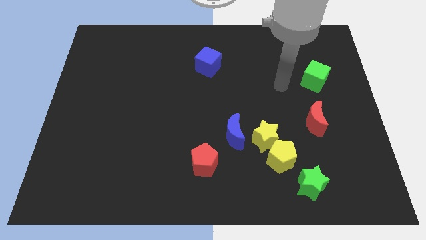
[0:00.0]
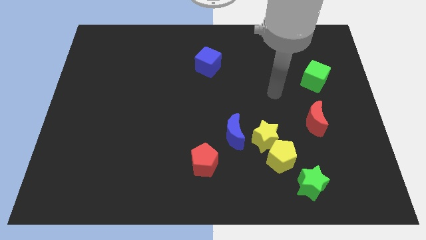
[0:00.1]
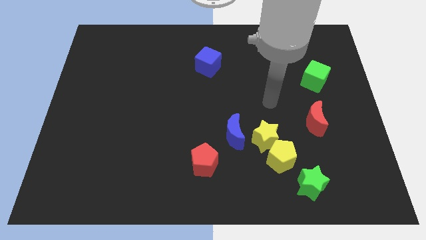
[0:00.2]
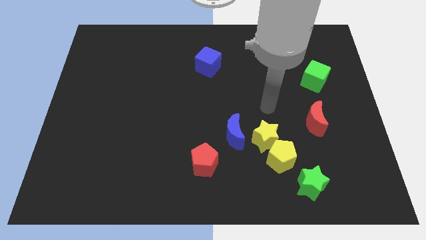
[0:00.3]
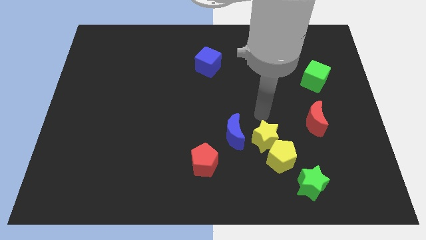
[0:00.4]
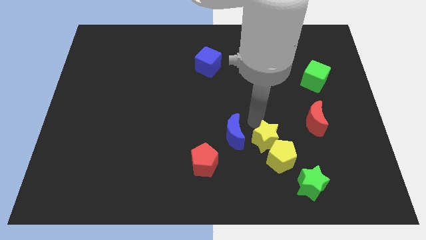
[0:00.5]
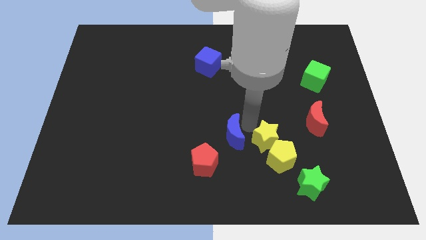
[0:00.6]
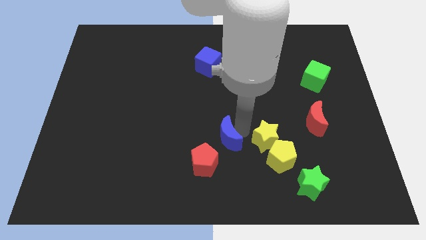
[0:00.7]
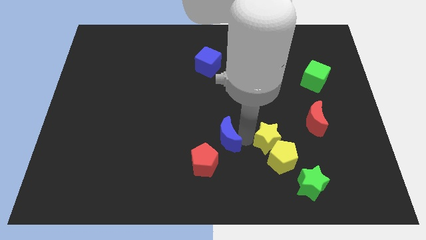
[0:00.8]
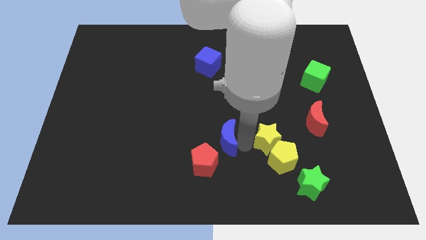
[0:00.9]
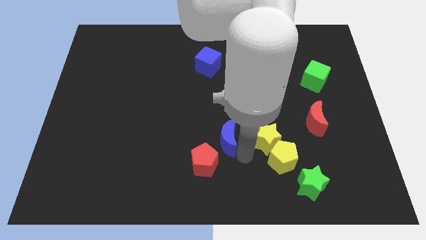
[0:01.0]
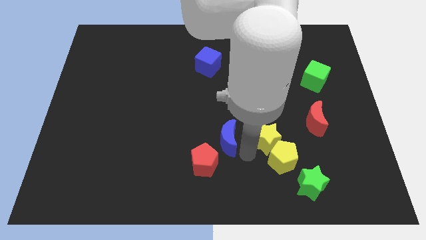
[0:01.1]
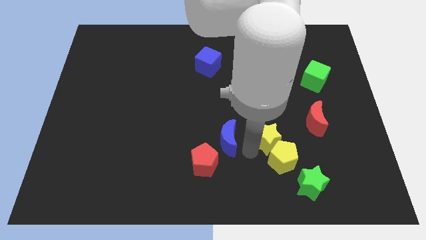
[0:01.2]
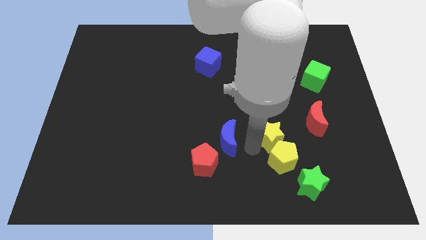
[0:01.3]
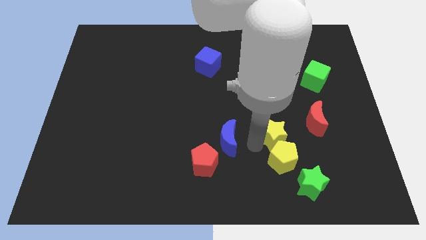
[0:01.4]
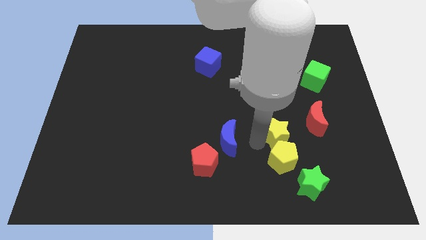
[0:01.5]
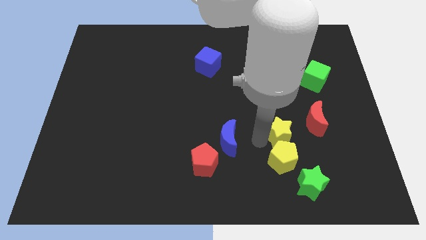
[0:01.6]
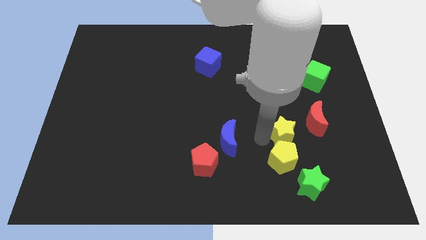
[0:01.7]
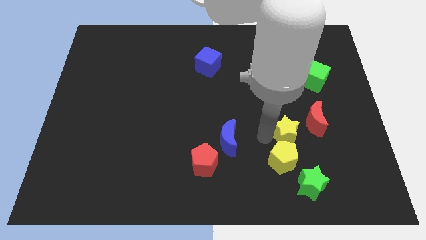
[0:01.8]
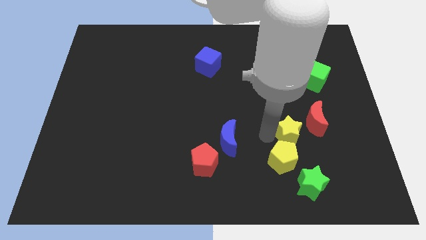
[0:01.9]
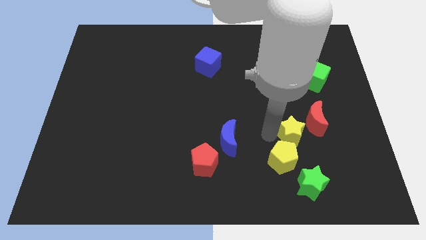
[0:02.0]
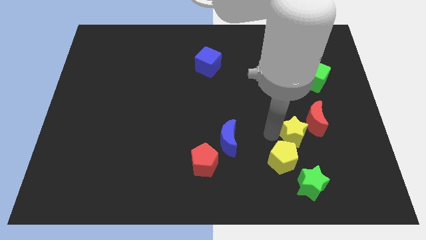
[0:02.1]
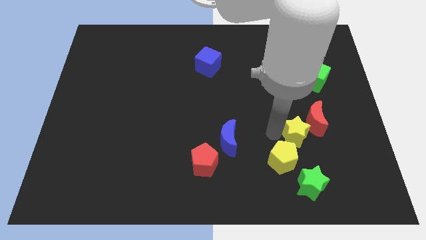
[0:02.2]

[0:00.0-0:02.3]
move the yellow star away from the yellow pentagon and blue moon

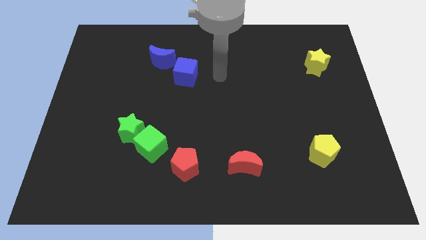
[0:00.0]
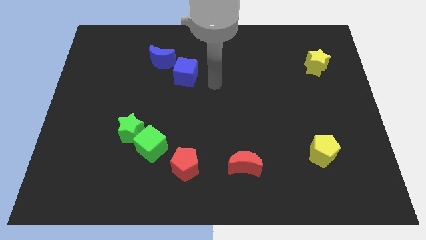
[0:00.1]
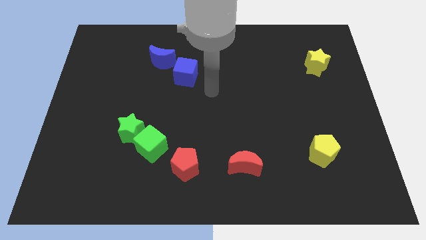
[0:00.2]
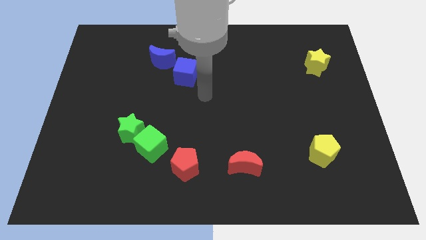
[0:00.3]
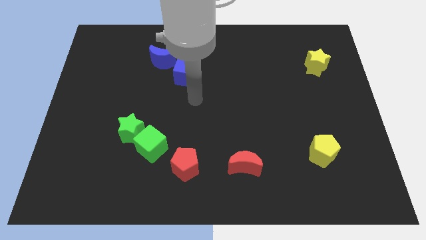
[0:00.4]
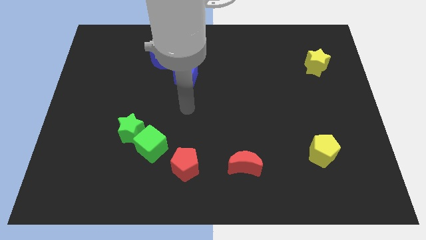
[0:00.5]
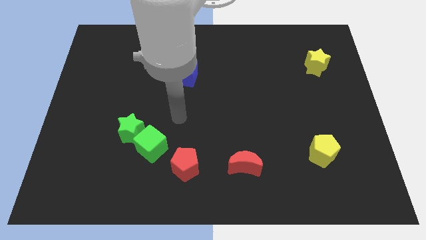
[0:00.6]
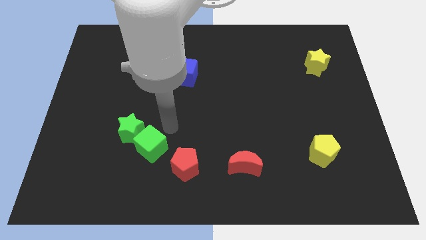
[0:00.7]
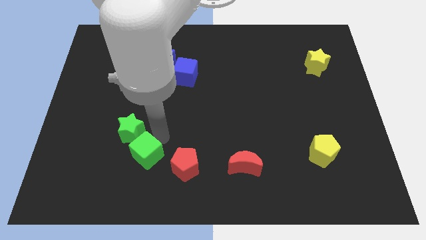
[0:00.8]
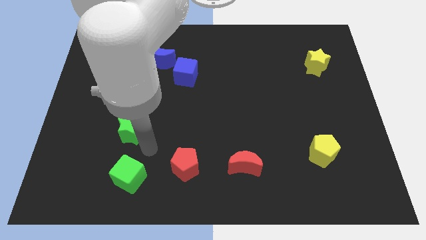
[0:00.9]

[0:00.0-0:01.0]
move the green star away from the green cube

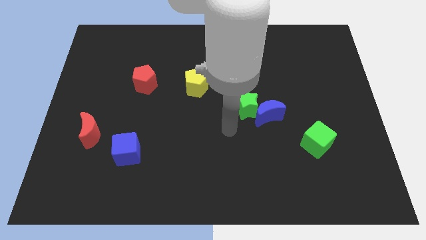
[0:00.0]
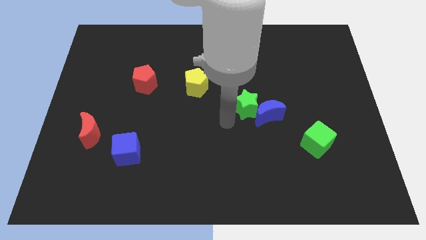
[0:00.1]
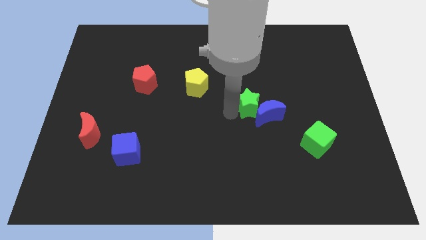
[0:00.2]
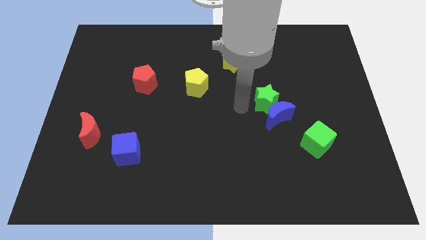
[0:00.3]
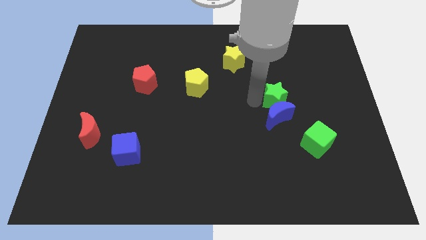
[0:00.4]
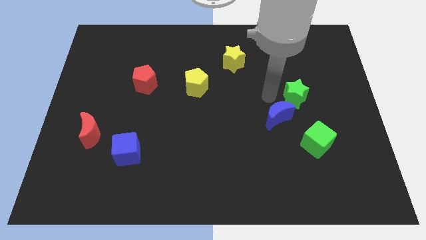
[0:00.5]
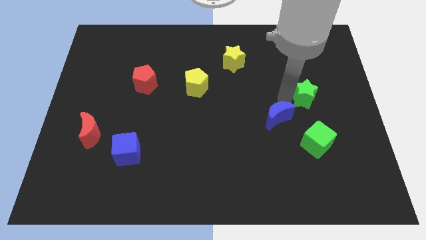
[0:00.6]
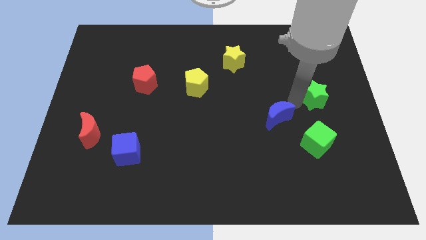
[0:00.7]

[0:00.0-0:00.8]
move the blue moon away from the green star

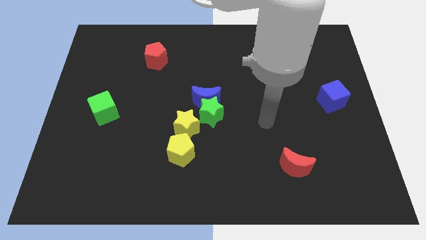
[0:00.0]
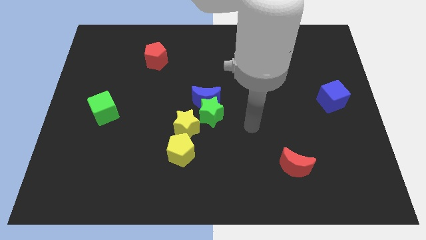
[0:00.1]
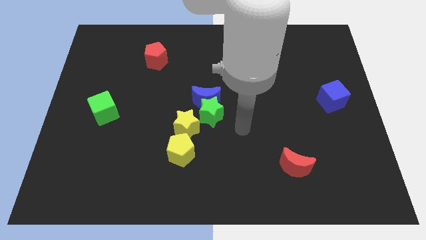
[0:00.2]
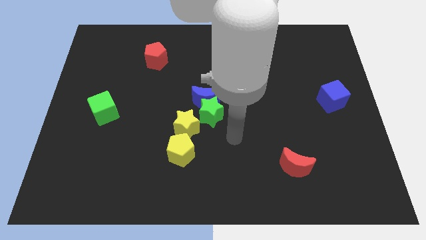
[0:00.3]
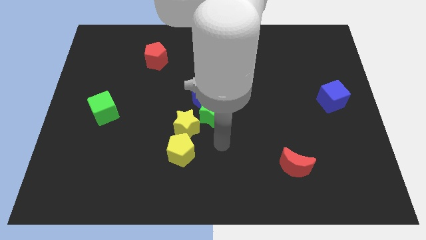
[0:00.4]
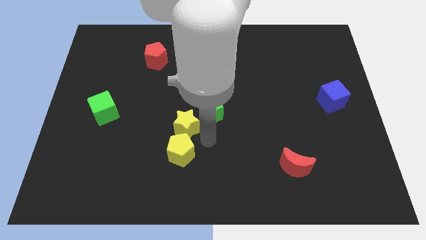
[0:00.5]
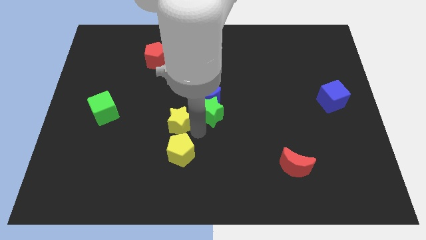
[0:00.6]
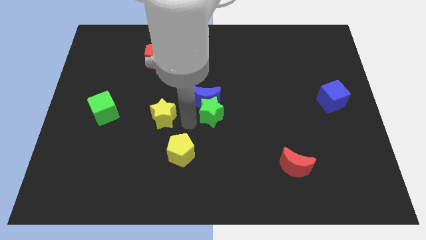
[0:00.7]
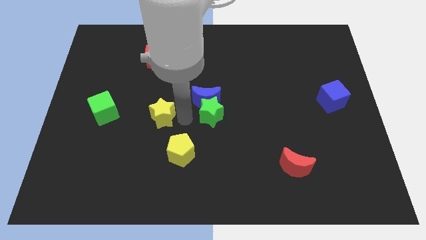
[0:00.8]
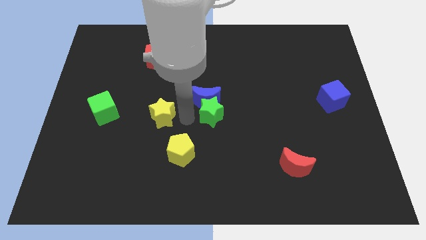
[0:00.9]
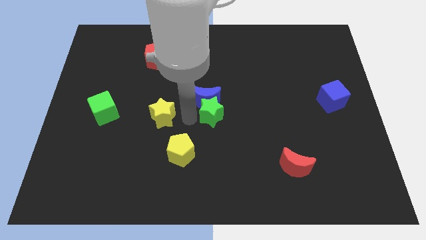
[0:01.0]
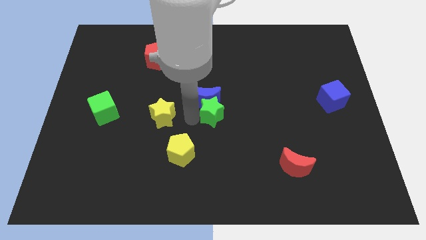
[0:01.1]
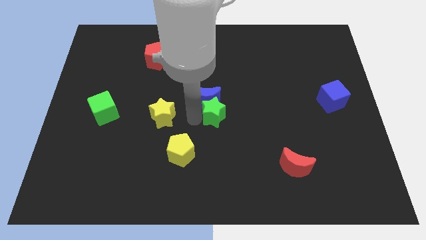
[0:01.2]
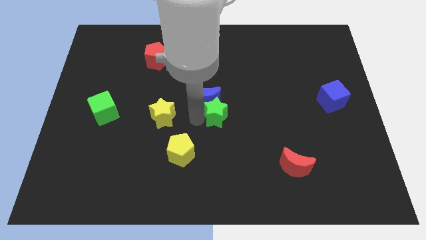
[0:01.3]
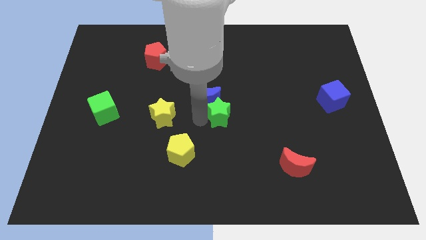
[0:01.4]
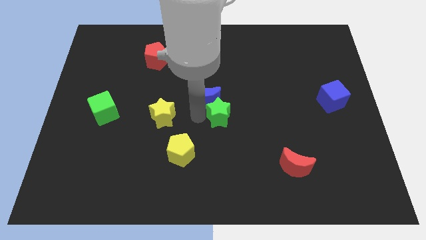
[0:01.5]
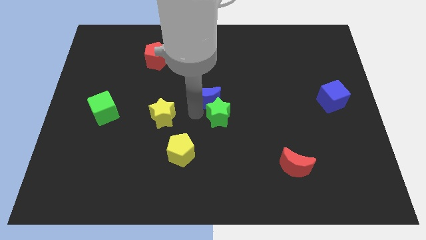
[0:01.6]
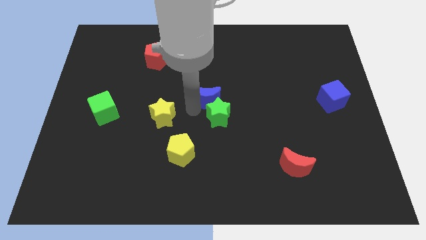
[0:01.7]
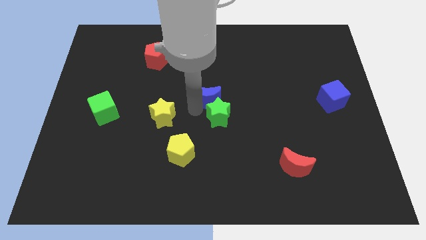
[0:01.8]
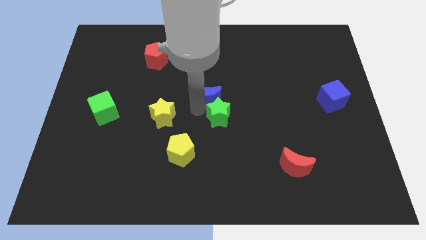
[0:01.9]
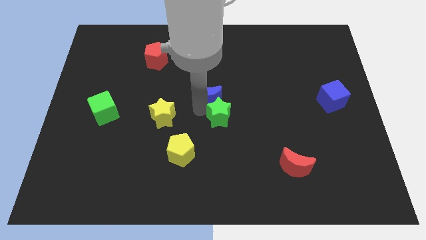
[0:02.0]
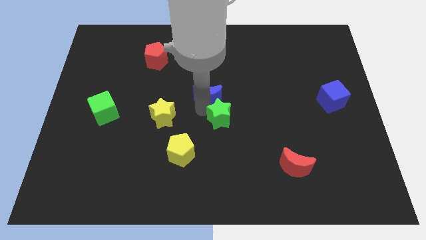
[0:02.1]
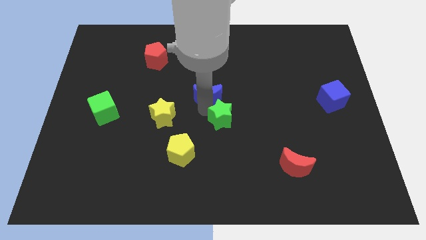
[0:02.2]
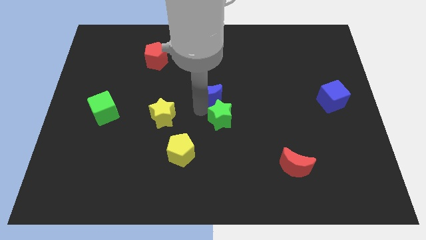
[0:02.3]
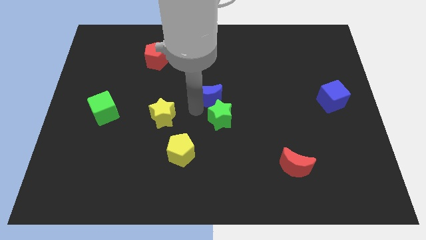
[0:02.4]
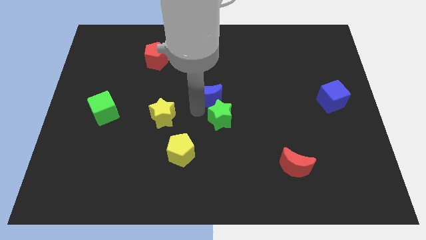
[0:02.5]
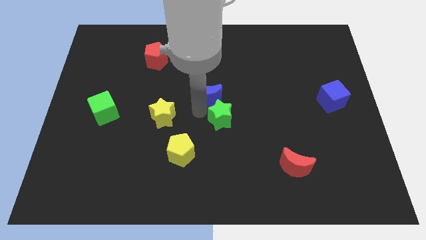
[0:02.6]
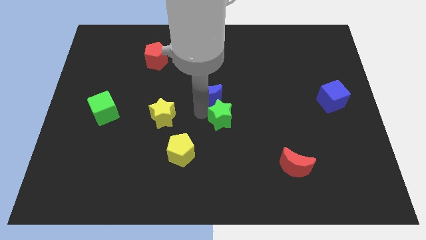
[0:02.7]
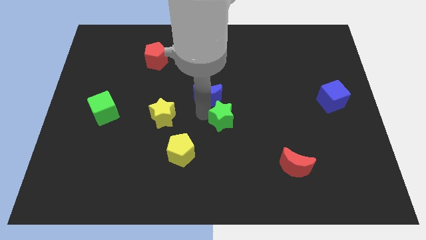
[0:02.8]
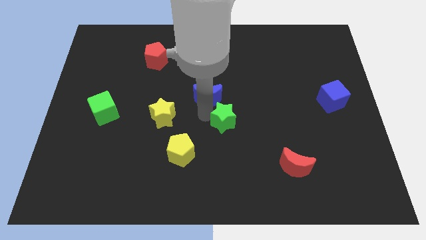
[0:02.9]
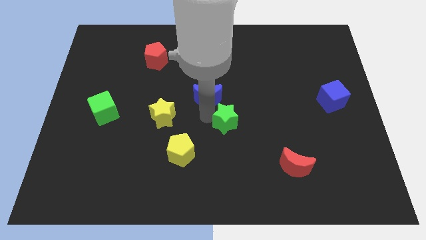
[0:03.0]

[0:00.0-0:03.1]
move the green star away from the blue moon and yellow star

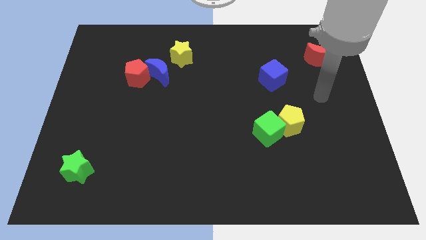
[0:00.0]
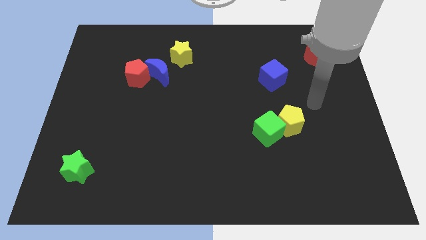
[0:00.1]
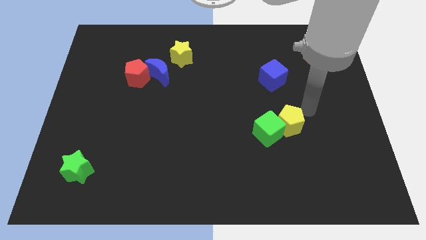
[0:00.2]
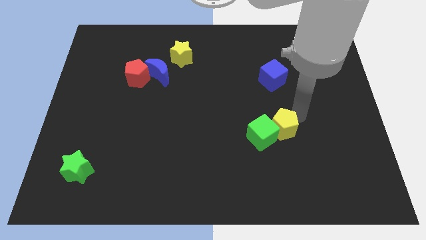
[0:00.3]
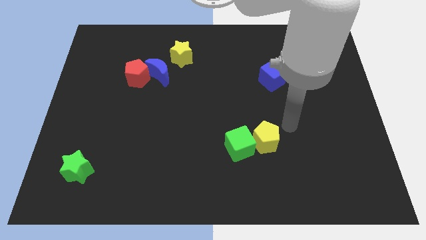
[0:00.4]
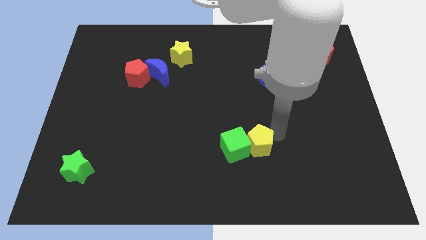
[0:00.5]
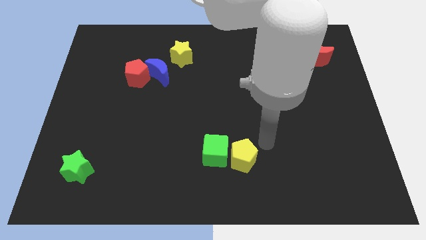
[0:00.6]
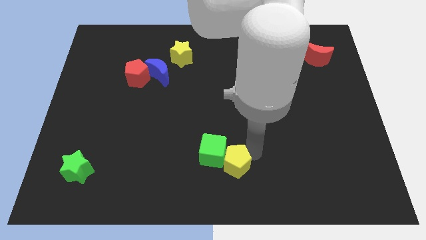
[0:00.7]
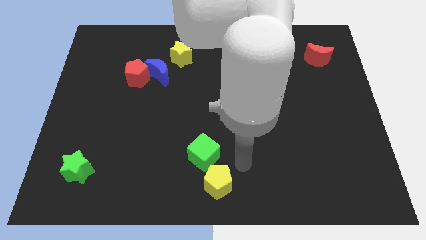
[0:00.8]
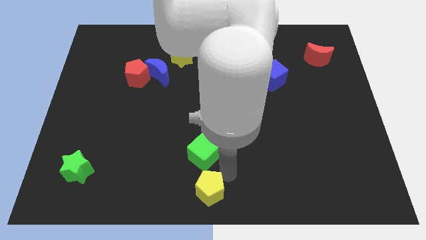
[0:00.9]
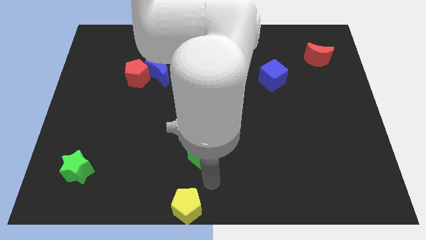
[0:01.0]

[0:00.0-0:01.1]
separate the green cube from the yellow pentagon

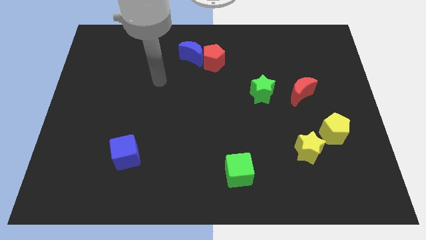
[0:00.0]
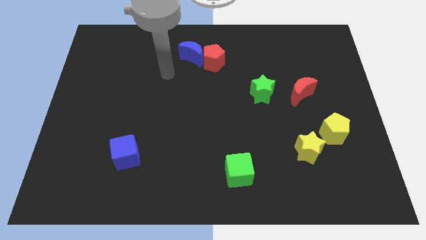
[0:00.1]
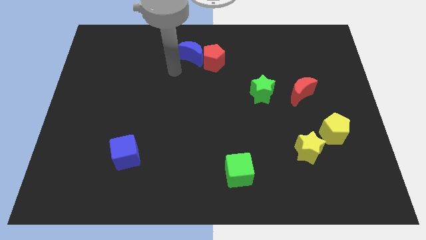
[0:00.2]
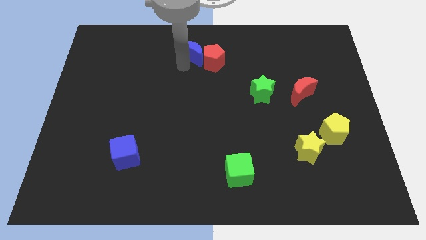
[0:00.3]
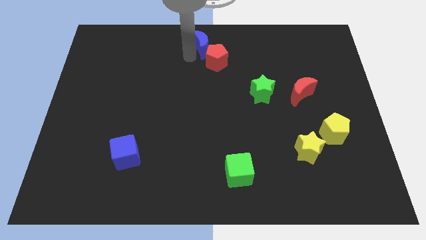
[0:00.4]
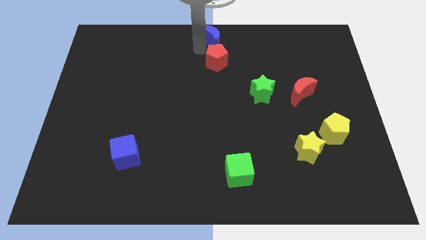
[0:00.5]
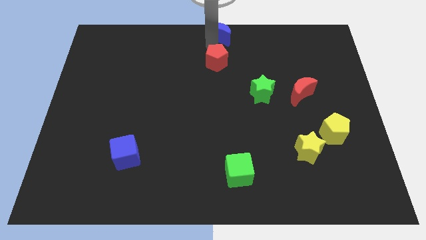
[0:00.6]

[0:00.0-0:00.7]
separate the red pentagon from the blue moon

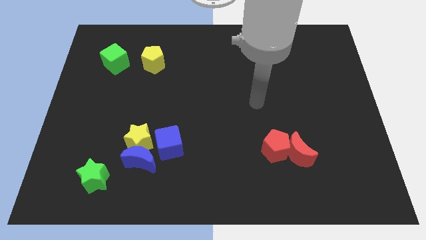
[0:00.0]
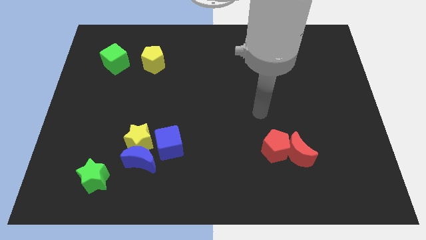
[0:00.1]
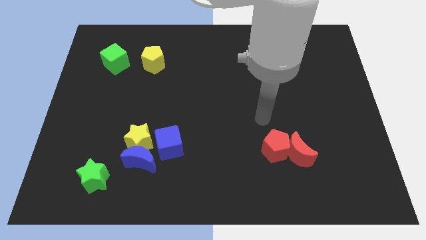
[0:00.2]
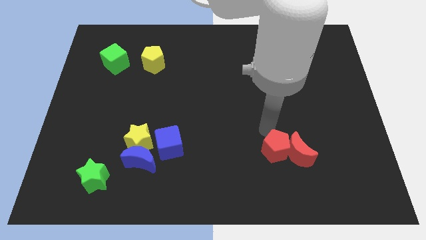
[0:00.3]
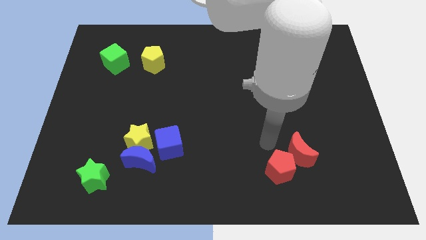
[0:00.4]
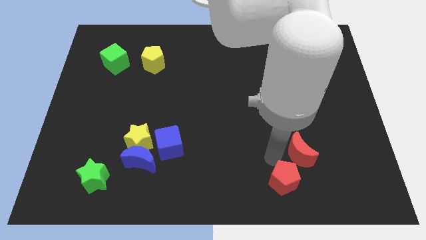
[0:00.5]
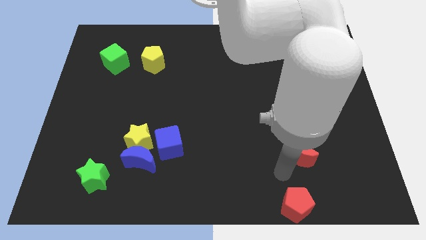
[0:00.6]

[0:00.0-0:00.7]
separate the red moon from the red pentagon
